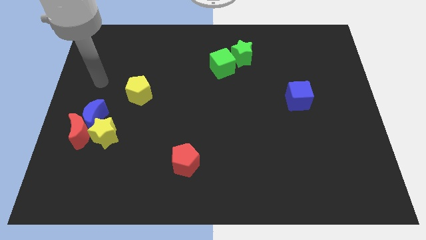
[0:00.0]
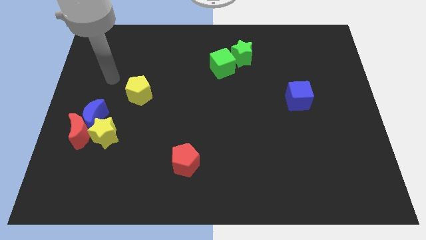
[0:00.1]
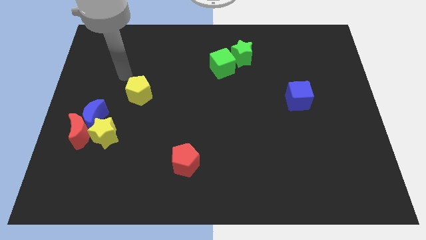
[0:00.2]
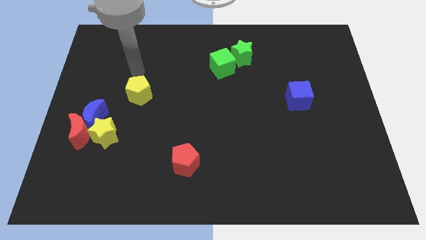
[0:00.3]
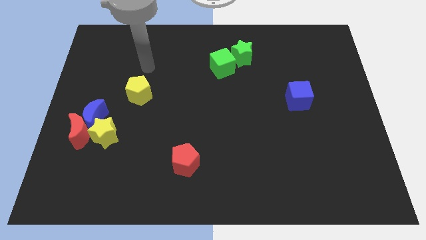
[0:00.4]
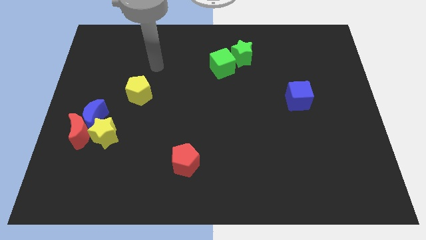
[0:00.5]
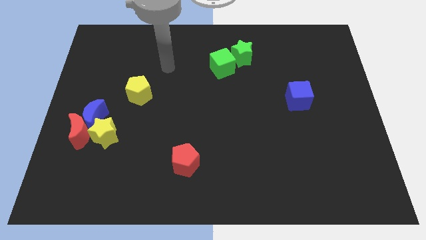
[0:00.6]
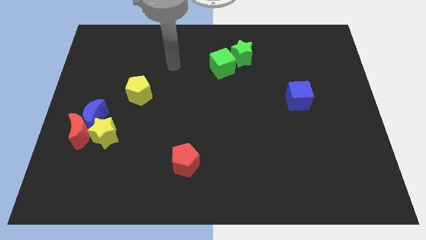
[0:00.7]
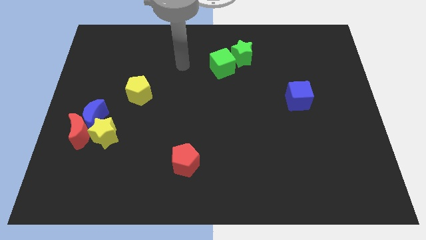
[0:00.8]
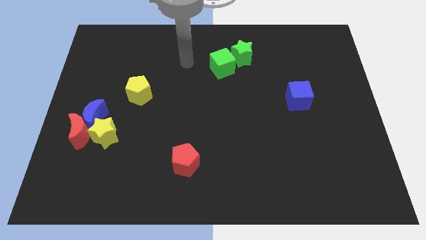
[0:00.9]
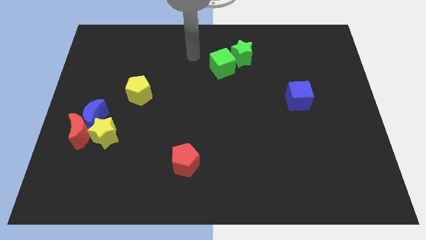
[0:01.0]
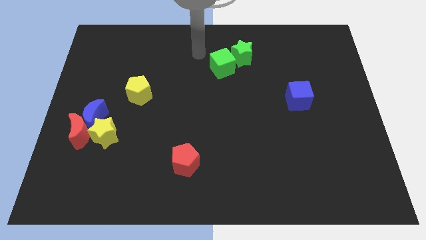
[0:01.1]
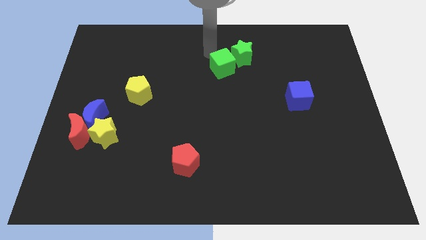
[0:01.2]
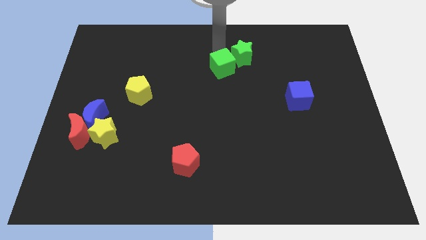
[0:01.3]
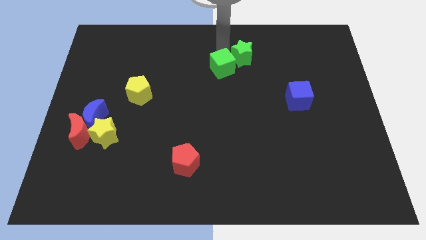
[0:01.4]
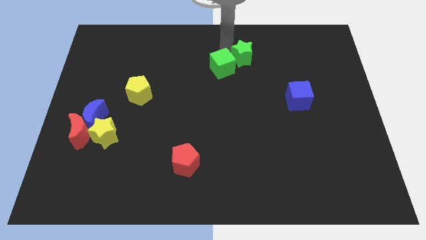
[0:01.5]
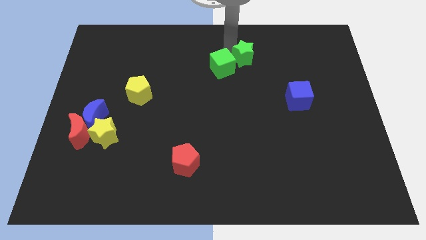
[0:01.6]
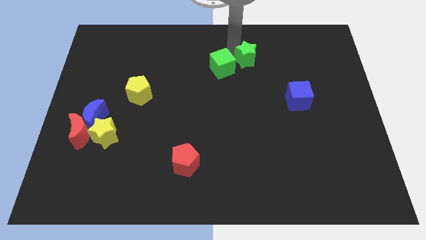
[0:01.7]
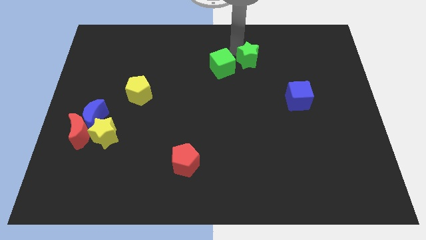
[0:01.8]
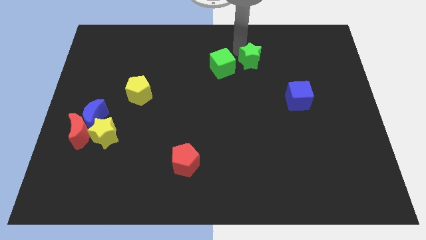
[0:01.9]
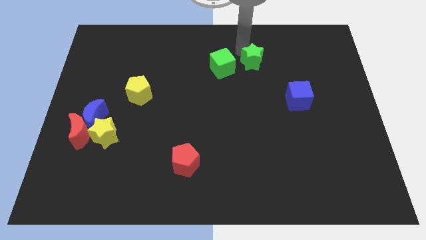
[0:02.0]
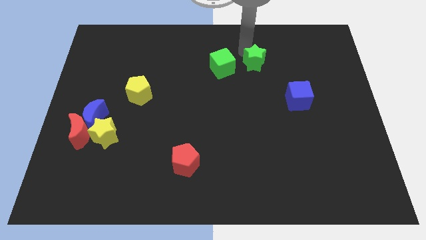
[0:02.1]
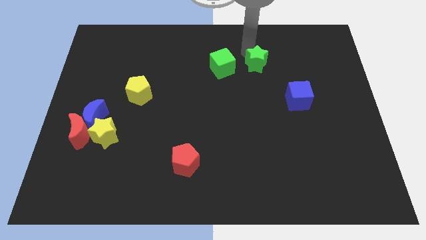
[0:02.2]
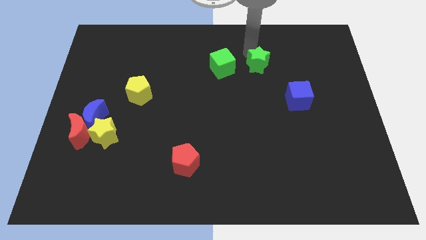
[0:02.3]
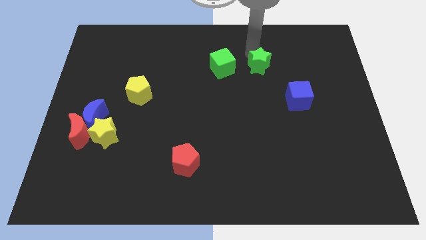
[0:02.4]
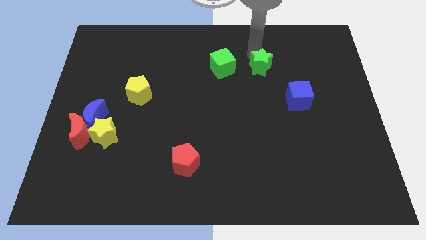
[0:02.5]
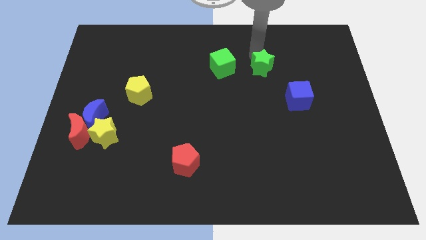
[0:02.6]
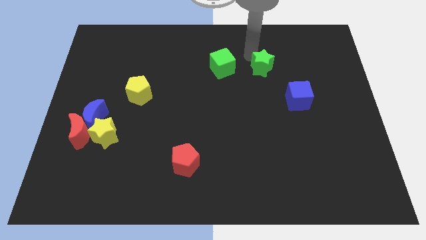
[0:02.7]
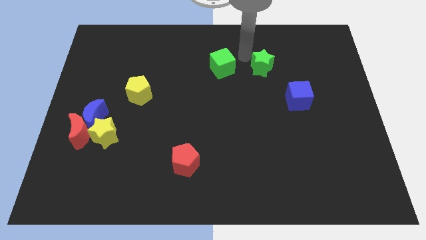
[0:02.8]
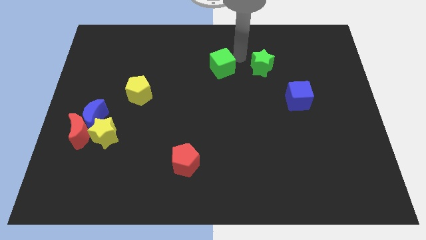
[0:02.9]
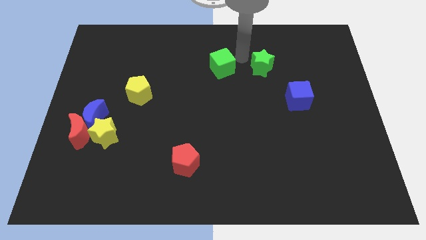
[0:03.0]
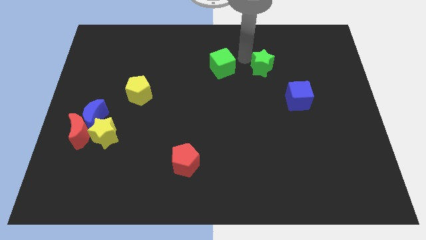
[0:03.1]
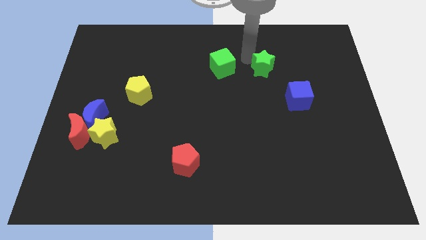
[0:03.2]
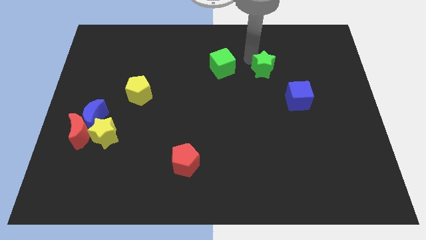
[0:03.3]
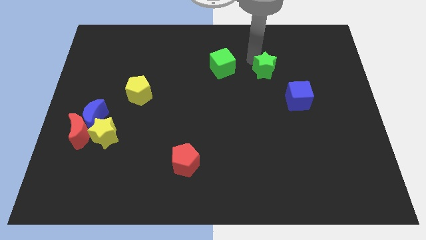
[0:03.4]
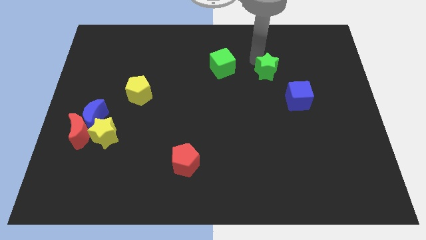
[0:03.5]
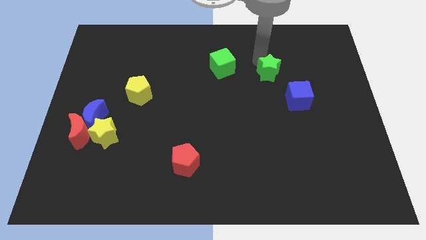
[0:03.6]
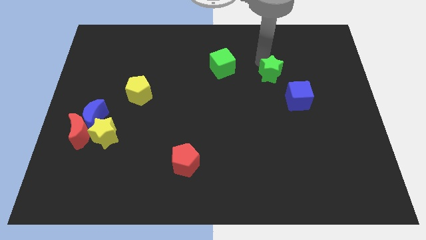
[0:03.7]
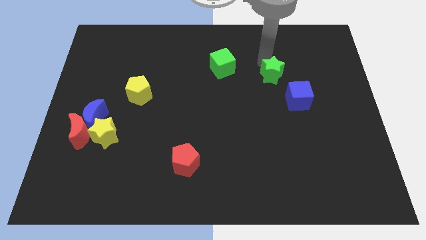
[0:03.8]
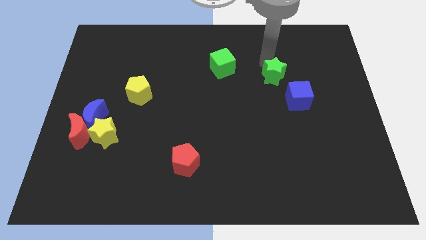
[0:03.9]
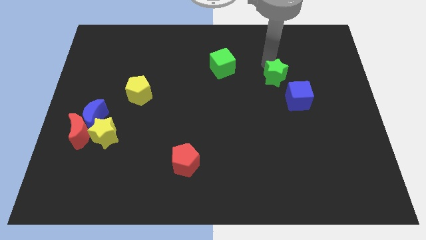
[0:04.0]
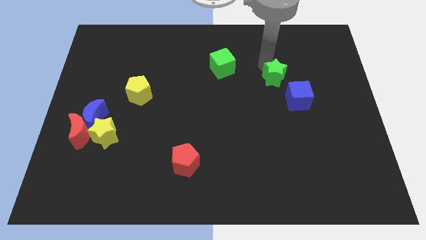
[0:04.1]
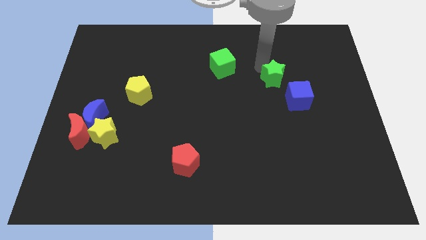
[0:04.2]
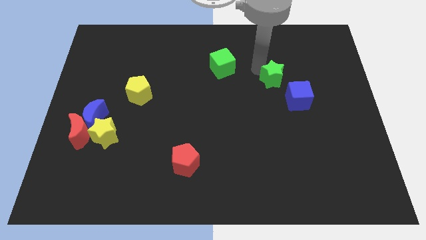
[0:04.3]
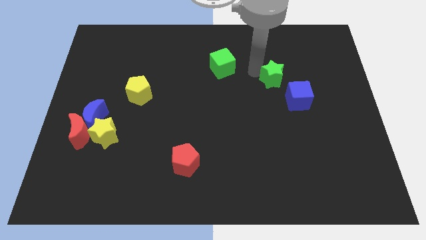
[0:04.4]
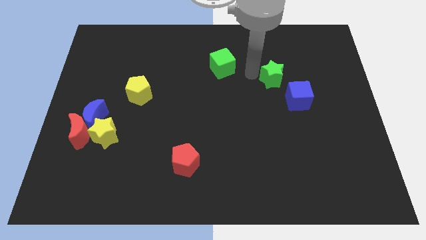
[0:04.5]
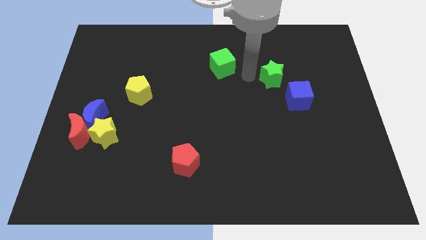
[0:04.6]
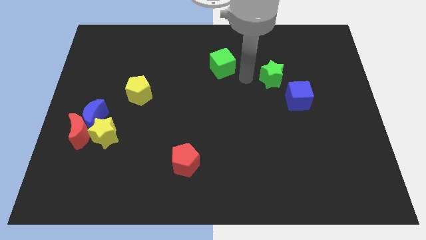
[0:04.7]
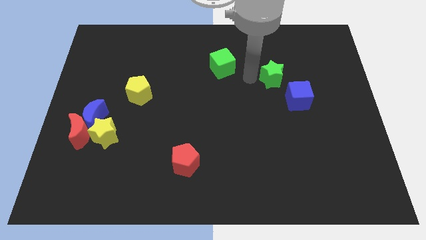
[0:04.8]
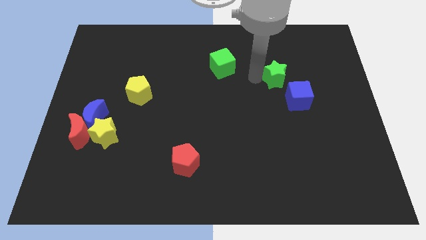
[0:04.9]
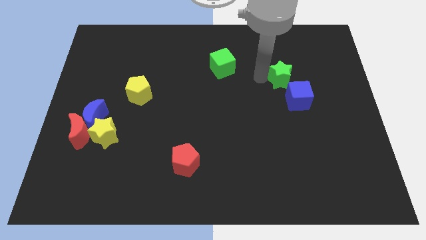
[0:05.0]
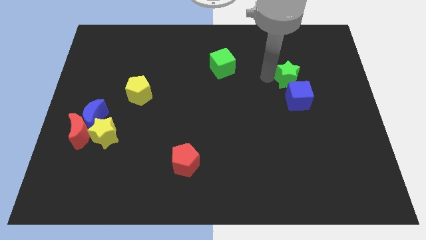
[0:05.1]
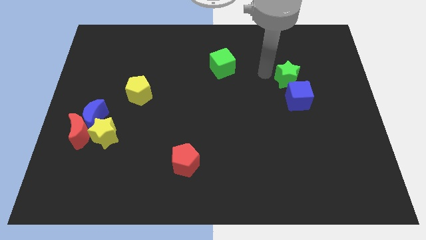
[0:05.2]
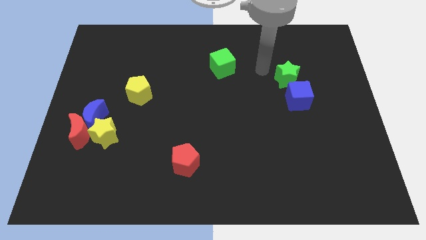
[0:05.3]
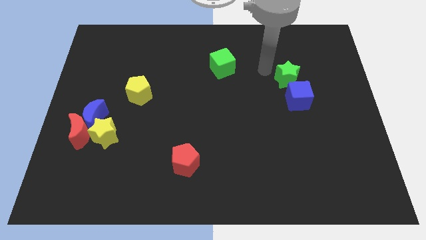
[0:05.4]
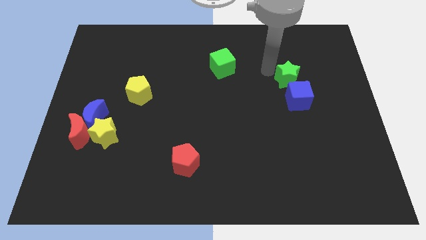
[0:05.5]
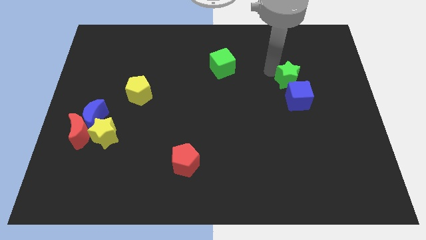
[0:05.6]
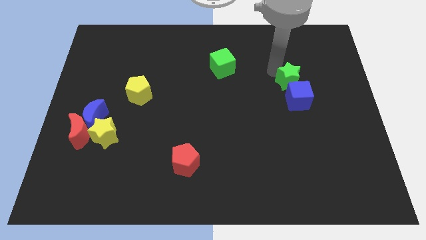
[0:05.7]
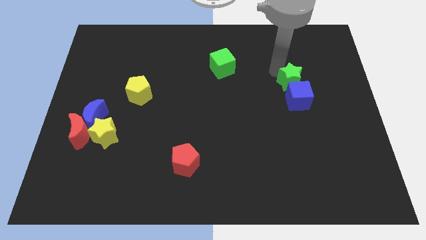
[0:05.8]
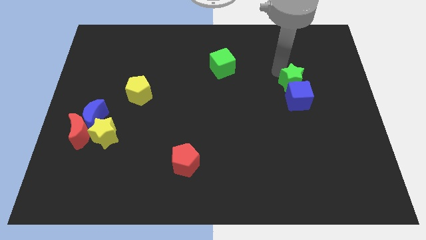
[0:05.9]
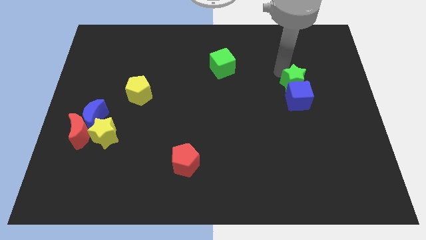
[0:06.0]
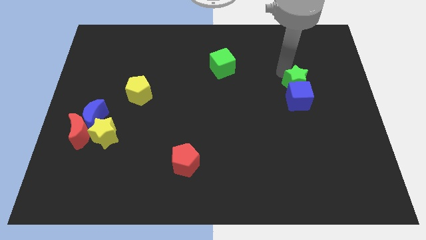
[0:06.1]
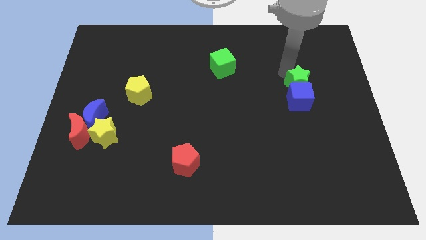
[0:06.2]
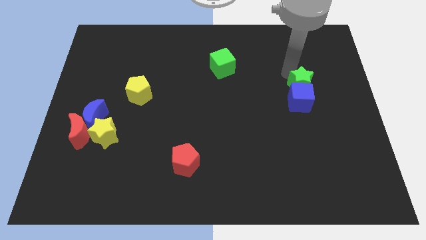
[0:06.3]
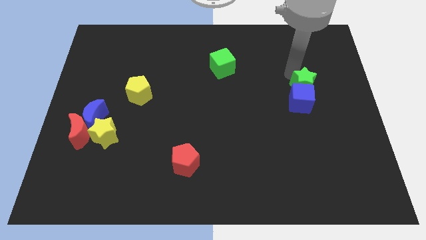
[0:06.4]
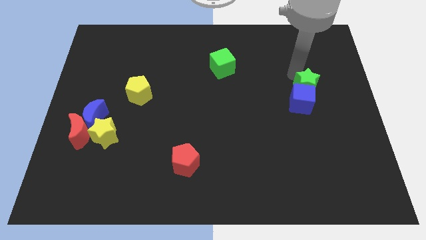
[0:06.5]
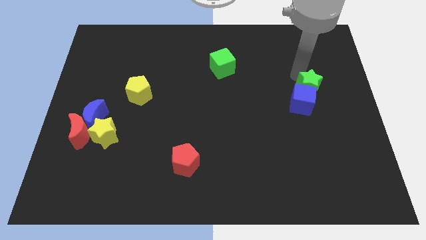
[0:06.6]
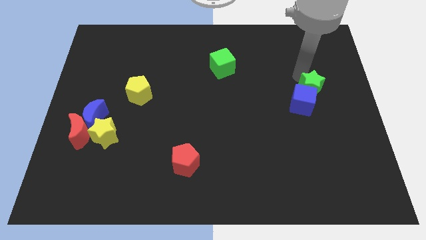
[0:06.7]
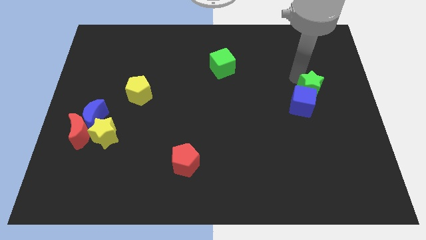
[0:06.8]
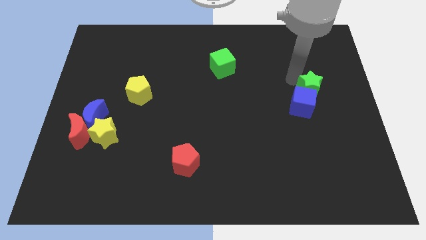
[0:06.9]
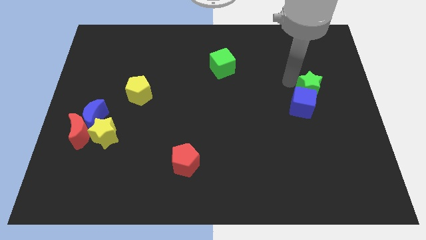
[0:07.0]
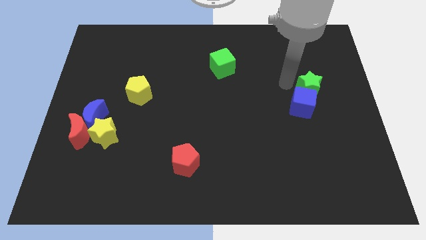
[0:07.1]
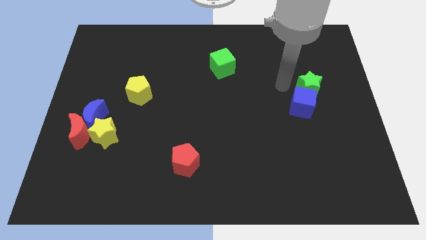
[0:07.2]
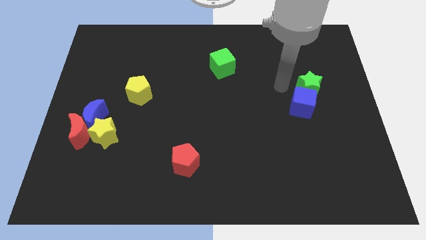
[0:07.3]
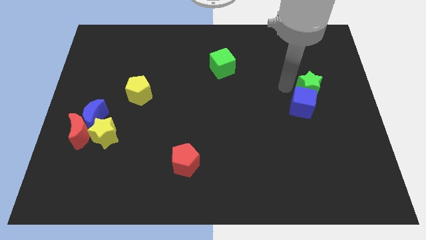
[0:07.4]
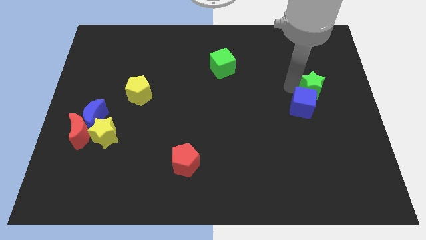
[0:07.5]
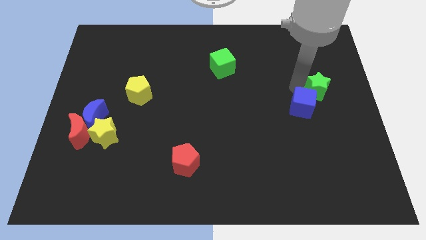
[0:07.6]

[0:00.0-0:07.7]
move the green star to the right side of the board
